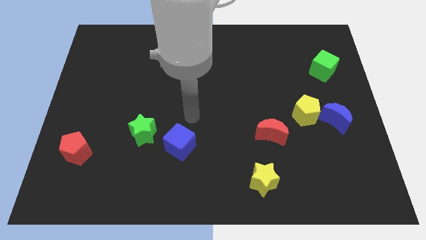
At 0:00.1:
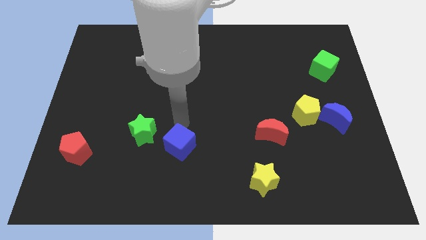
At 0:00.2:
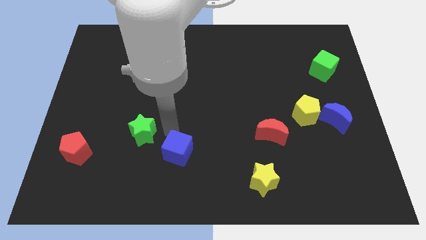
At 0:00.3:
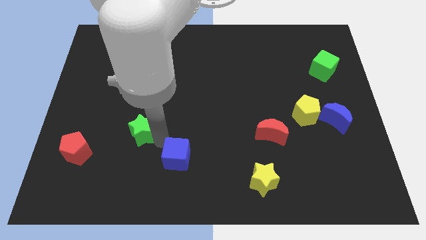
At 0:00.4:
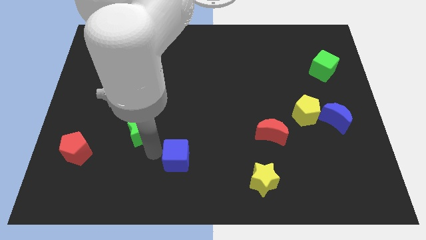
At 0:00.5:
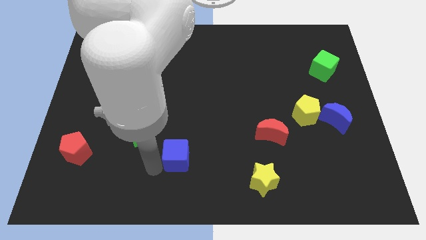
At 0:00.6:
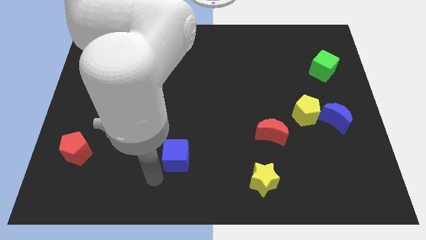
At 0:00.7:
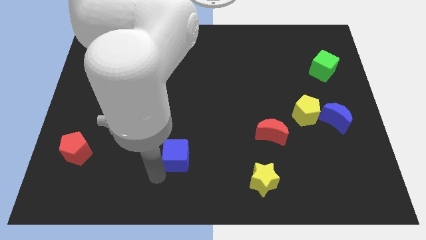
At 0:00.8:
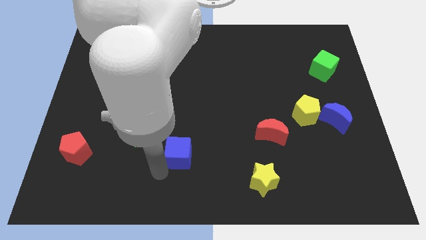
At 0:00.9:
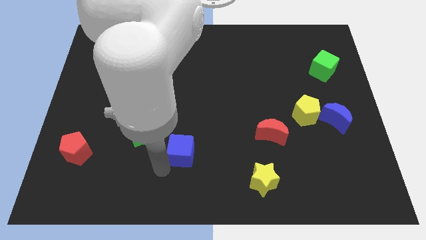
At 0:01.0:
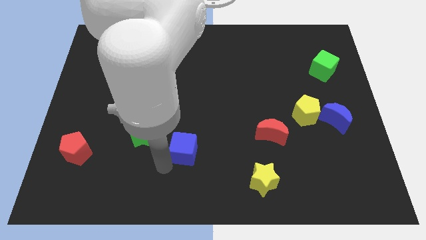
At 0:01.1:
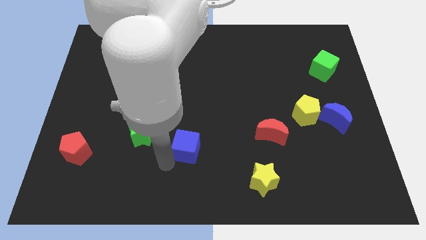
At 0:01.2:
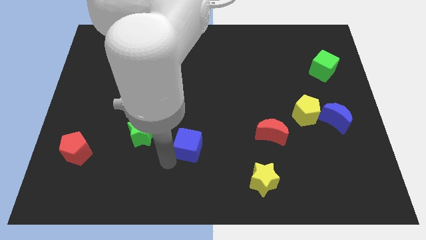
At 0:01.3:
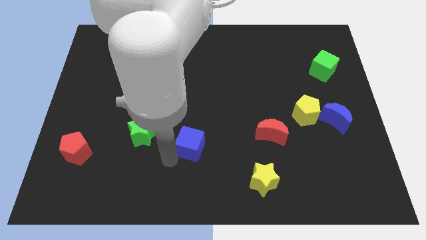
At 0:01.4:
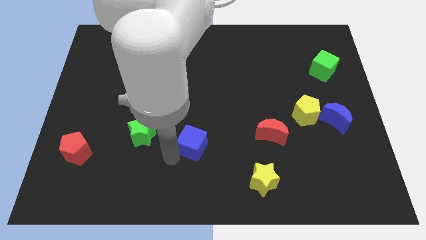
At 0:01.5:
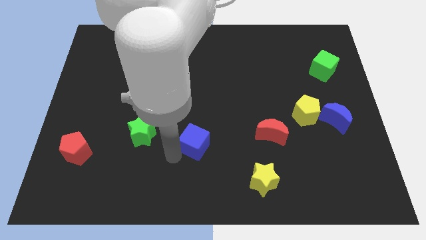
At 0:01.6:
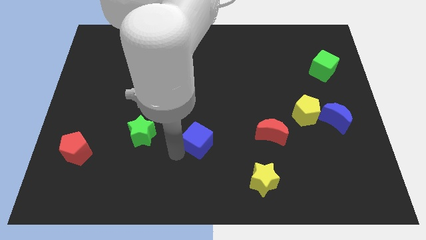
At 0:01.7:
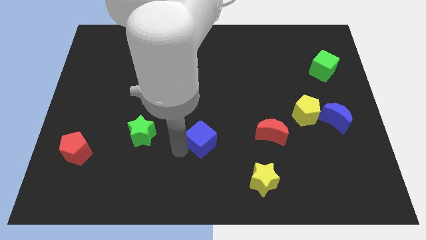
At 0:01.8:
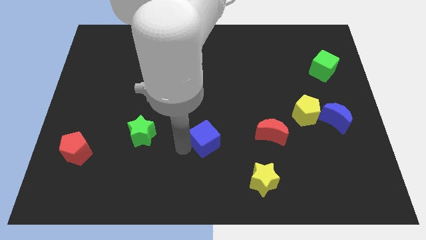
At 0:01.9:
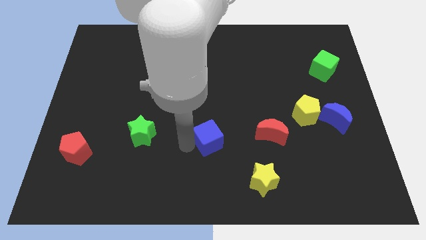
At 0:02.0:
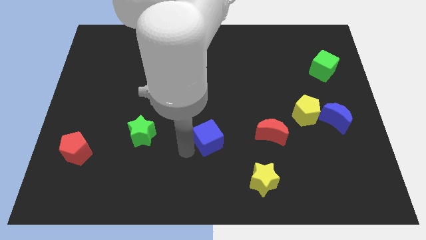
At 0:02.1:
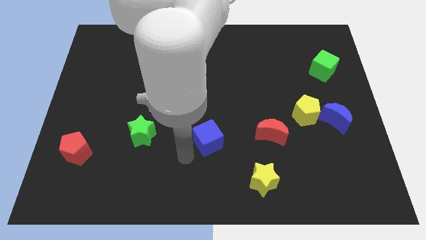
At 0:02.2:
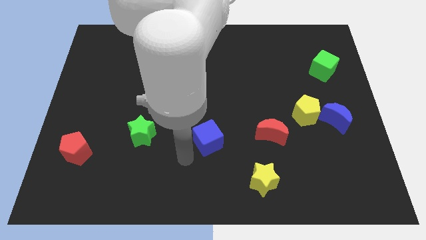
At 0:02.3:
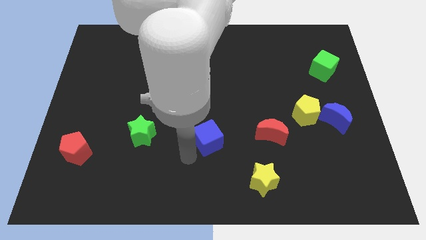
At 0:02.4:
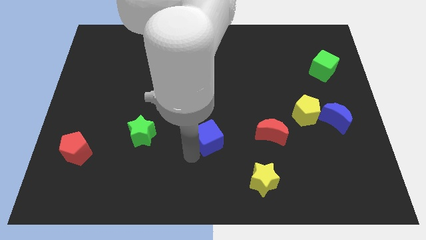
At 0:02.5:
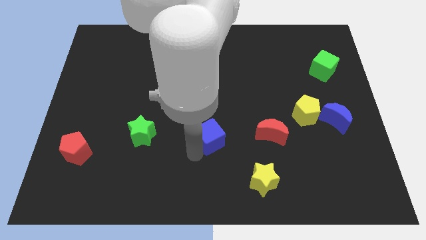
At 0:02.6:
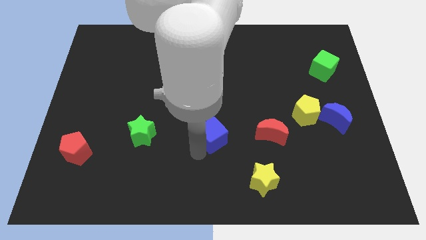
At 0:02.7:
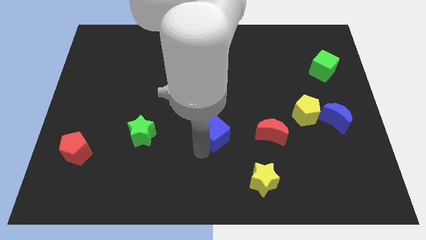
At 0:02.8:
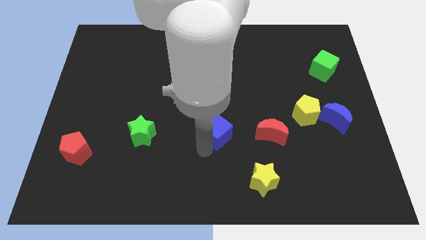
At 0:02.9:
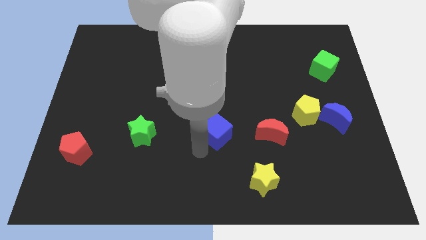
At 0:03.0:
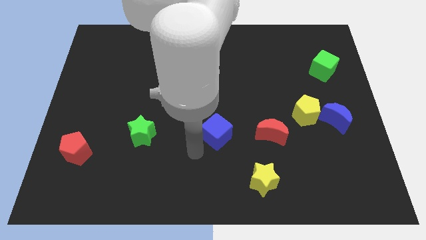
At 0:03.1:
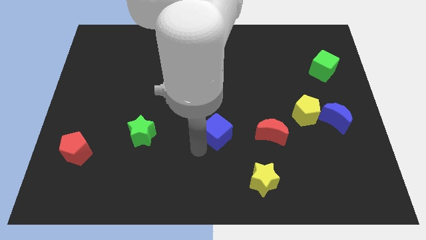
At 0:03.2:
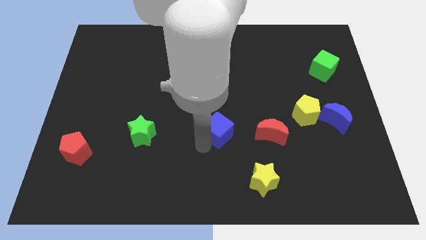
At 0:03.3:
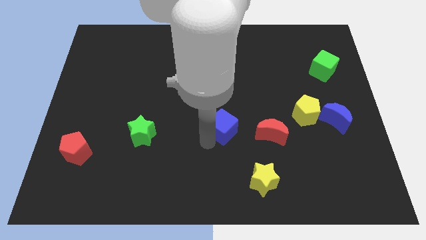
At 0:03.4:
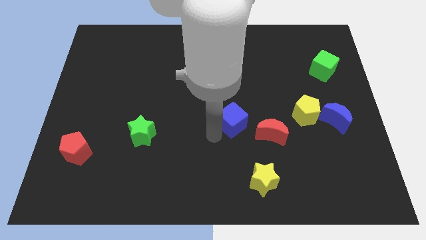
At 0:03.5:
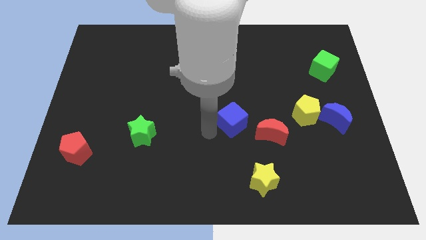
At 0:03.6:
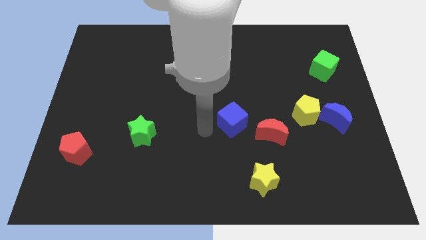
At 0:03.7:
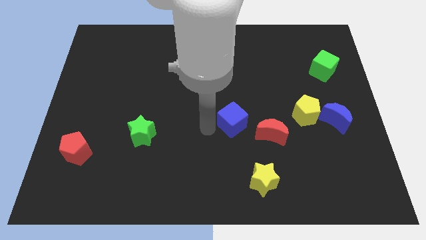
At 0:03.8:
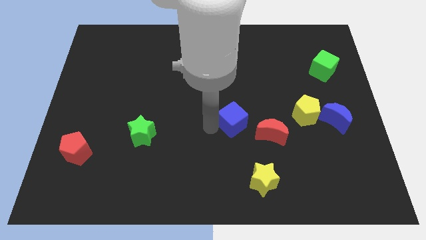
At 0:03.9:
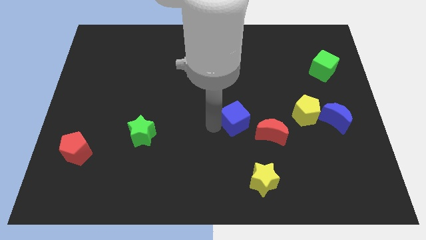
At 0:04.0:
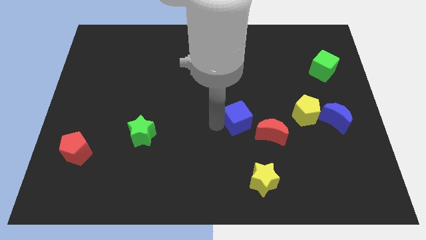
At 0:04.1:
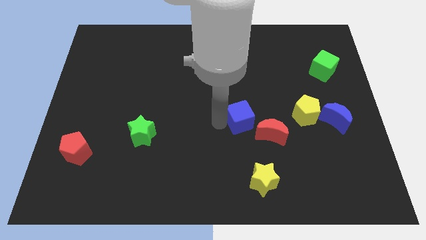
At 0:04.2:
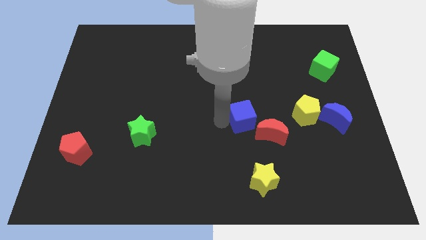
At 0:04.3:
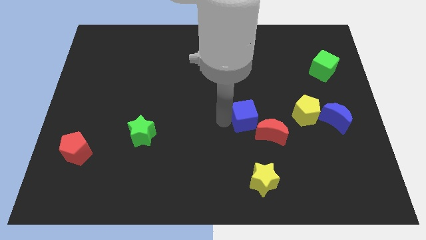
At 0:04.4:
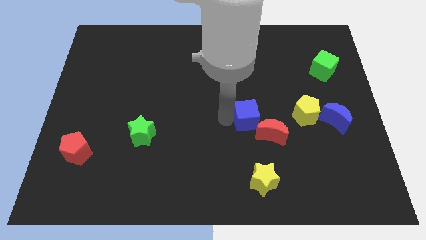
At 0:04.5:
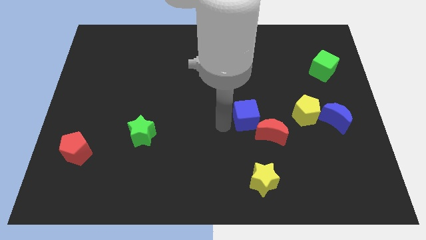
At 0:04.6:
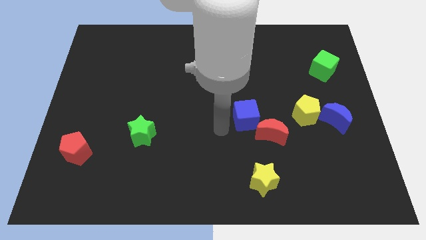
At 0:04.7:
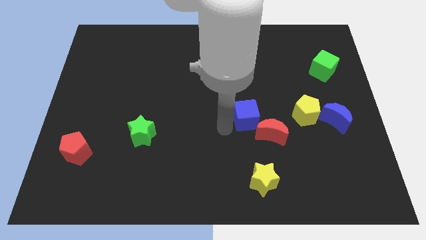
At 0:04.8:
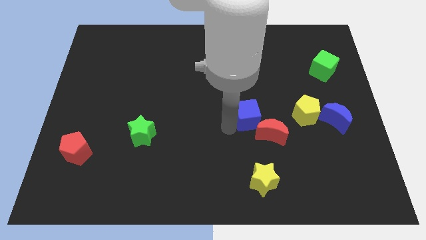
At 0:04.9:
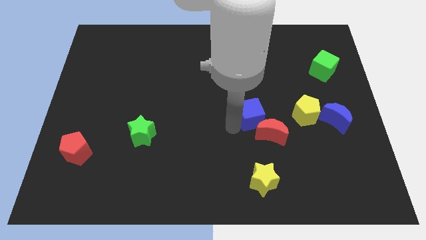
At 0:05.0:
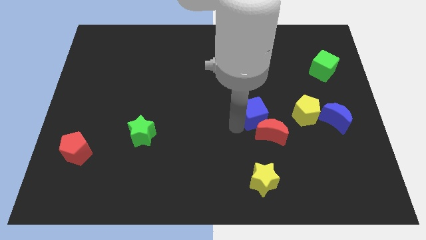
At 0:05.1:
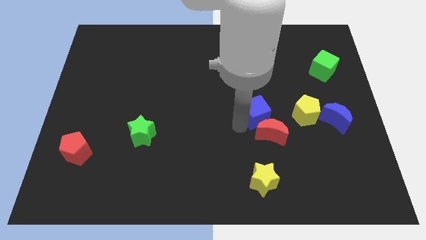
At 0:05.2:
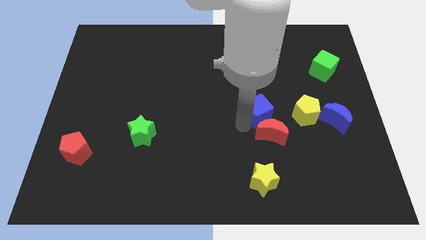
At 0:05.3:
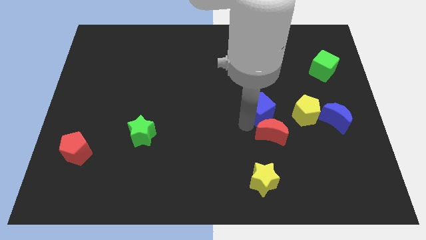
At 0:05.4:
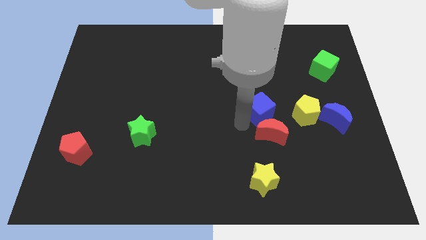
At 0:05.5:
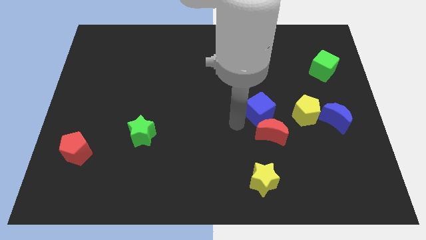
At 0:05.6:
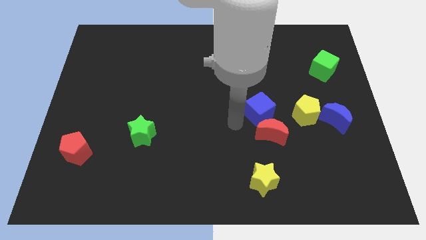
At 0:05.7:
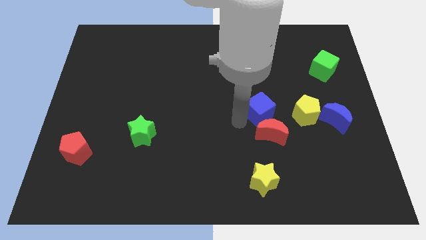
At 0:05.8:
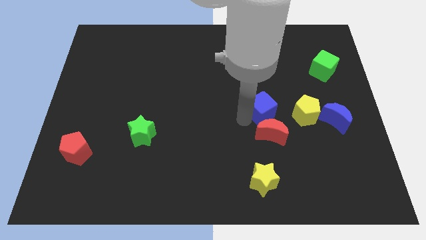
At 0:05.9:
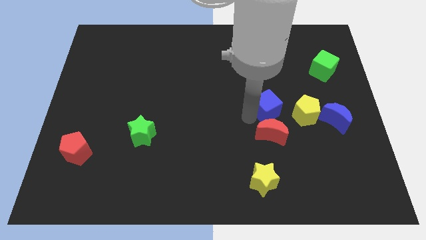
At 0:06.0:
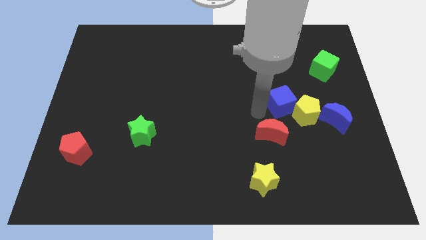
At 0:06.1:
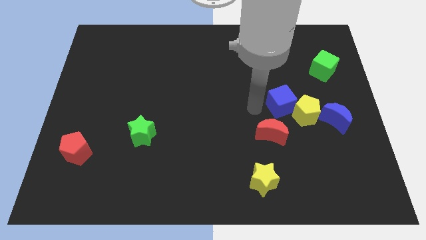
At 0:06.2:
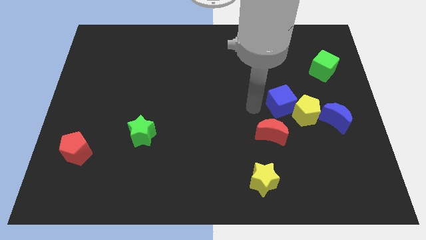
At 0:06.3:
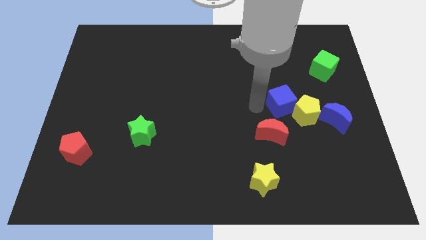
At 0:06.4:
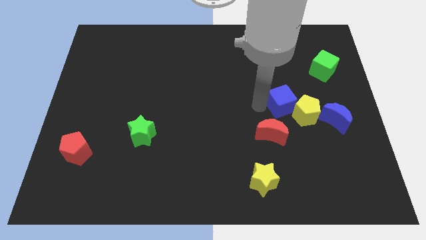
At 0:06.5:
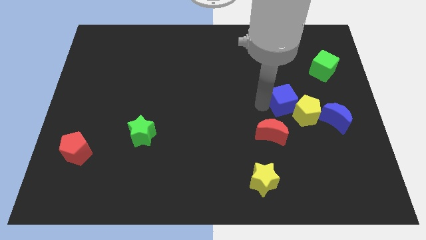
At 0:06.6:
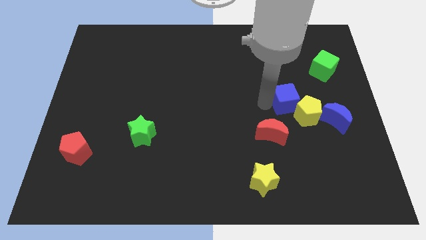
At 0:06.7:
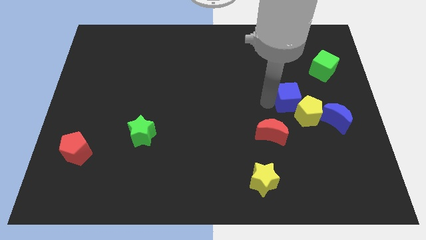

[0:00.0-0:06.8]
put the blue cube to the top left of the blue moon

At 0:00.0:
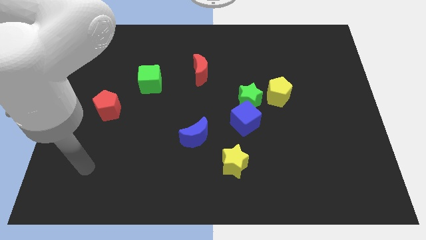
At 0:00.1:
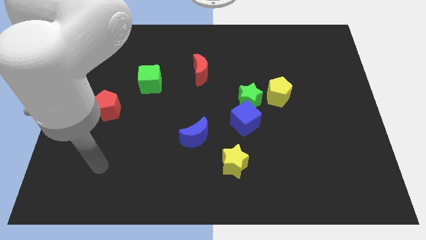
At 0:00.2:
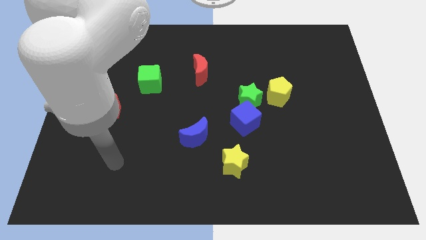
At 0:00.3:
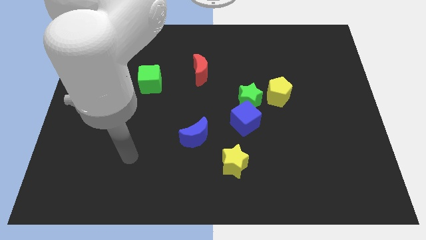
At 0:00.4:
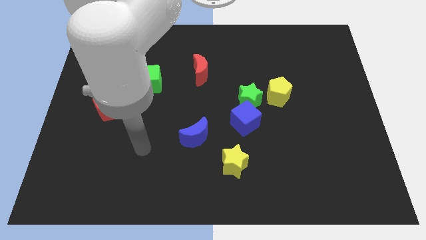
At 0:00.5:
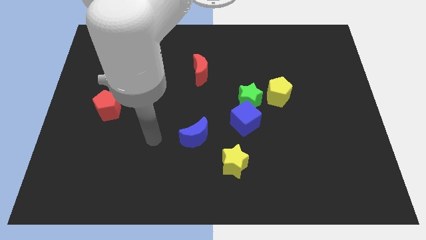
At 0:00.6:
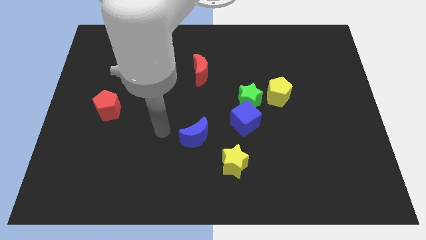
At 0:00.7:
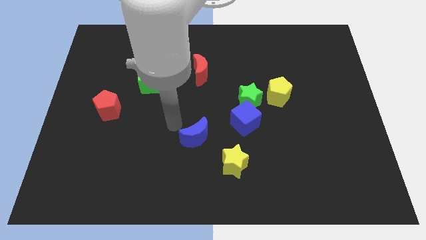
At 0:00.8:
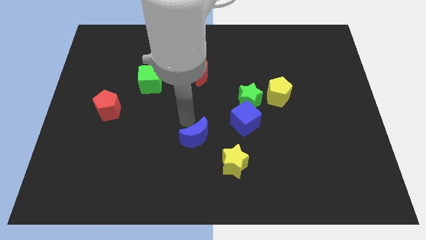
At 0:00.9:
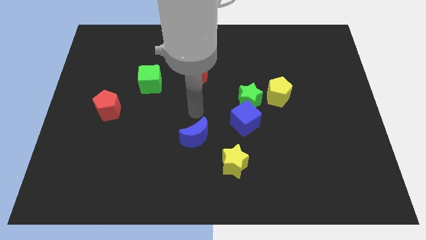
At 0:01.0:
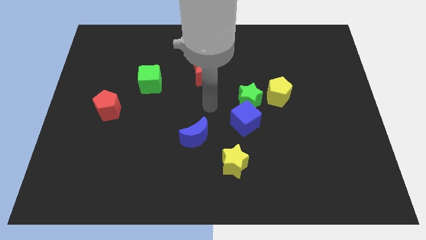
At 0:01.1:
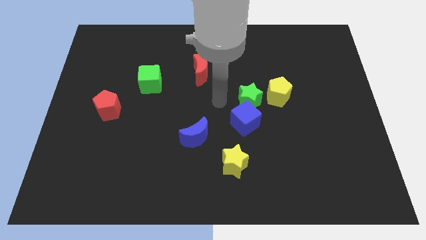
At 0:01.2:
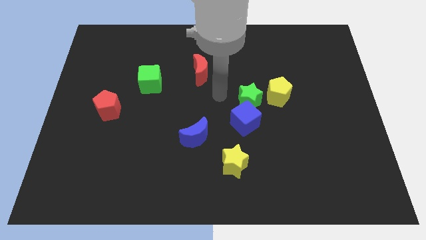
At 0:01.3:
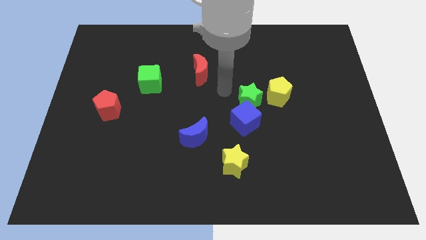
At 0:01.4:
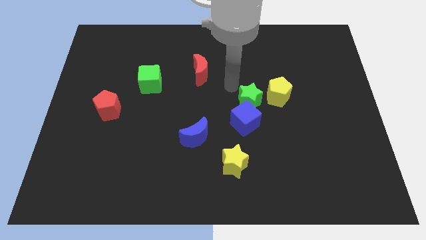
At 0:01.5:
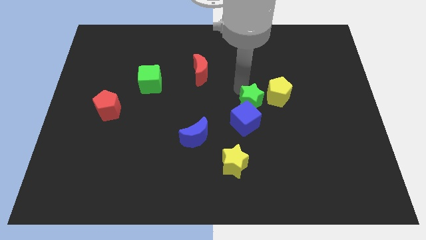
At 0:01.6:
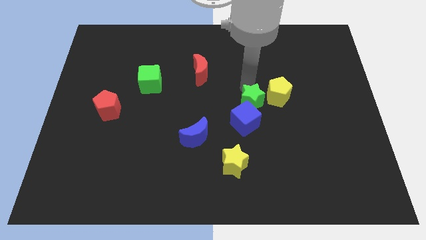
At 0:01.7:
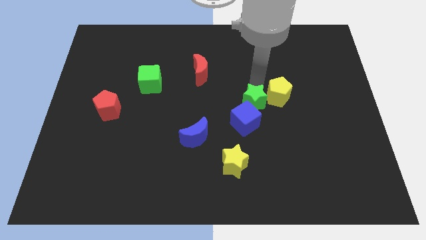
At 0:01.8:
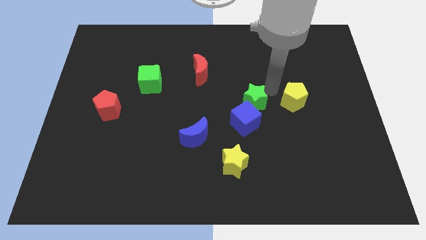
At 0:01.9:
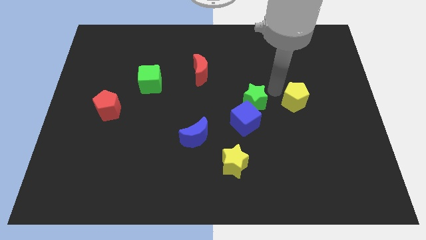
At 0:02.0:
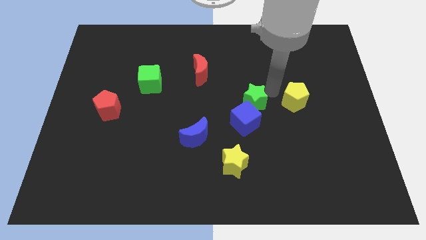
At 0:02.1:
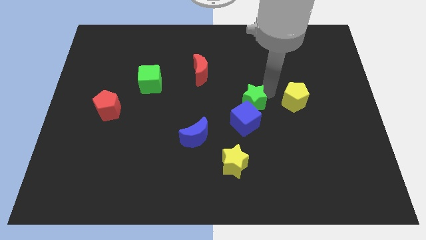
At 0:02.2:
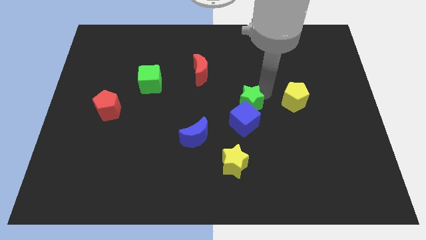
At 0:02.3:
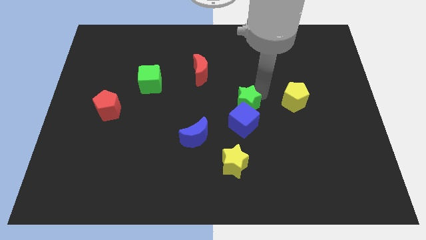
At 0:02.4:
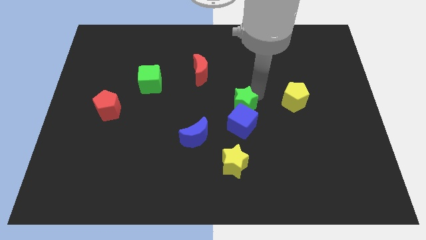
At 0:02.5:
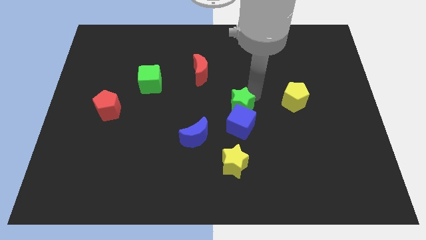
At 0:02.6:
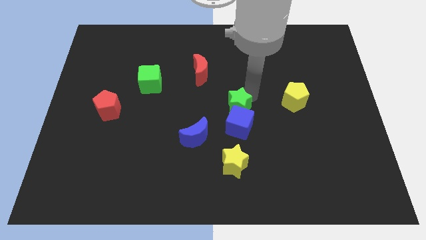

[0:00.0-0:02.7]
put the green star to the top right side of the blue moon
